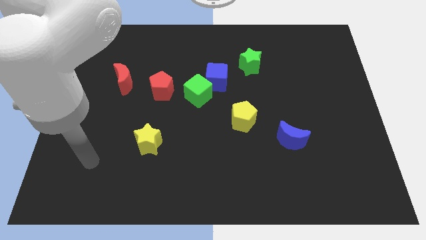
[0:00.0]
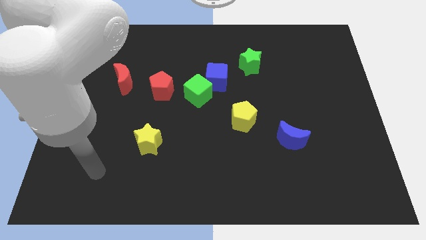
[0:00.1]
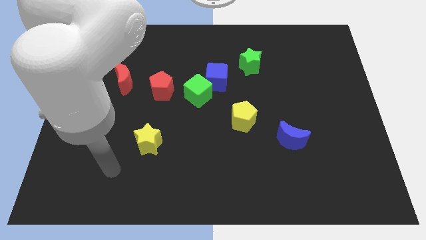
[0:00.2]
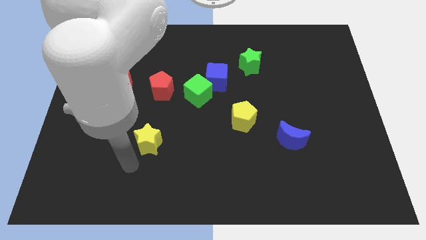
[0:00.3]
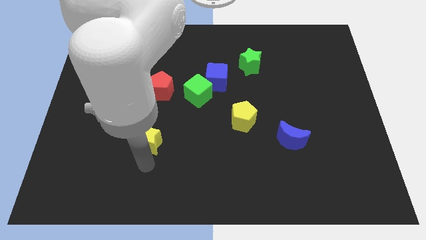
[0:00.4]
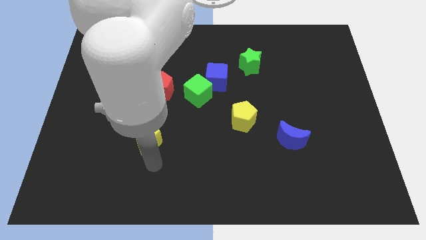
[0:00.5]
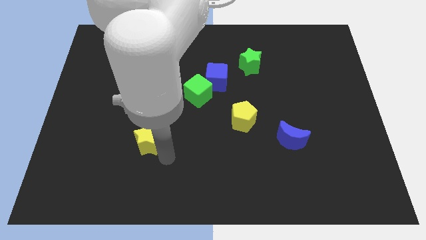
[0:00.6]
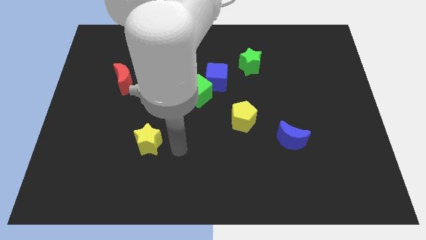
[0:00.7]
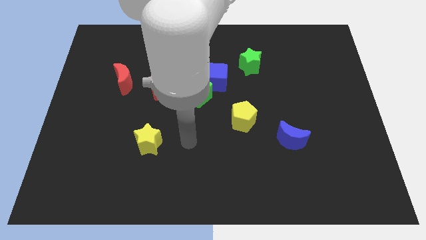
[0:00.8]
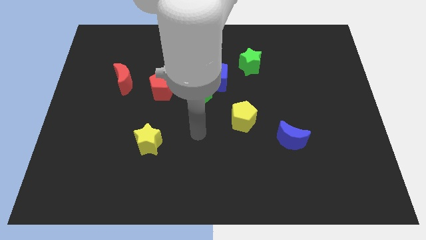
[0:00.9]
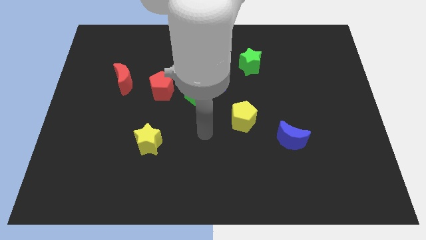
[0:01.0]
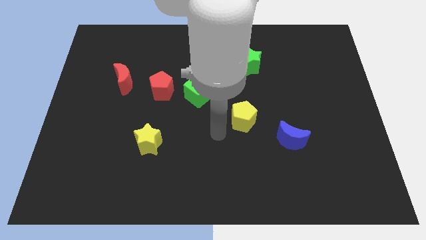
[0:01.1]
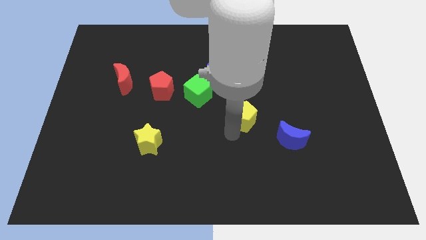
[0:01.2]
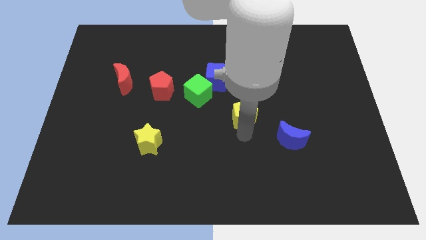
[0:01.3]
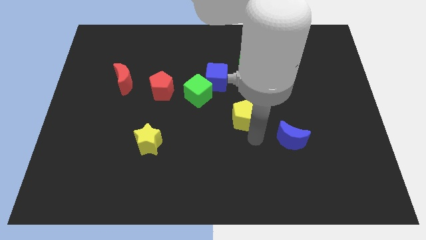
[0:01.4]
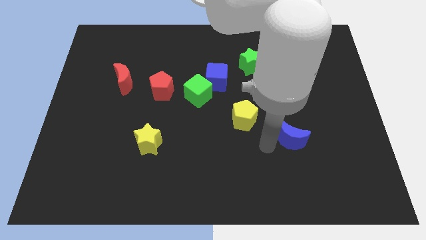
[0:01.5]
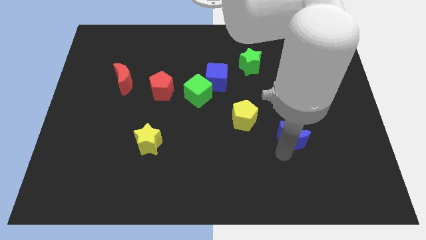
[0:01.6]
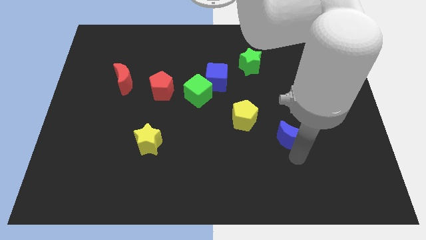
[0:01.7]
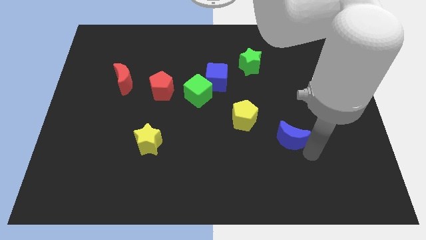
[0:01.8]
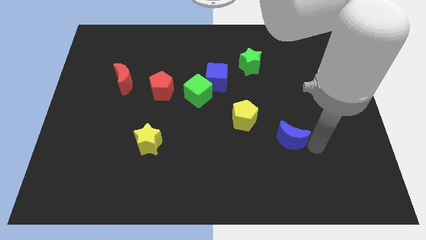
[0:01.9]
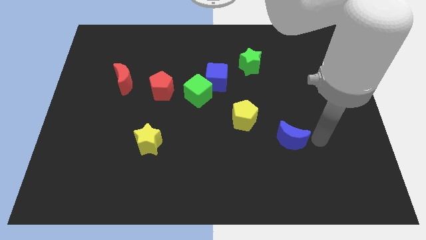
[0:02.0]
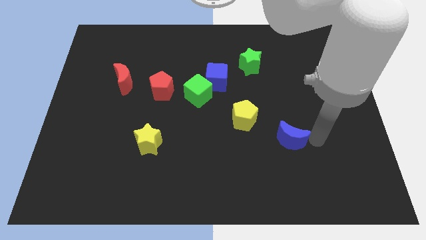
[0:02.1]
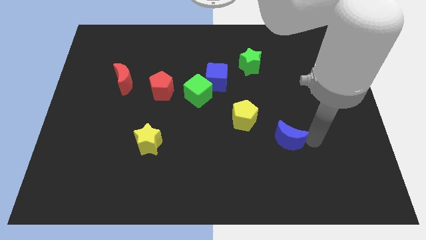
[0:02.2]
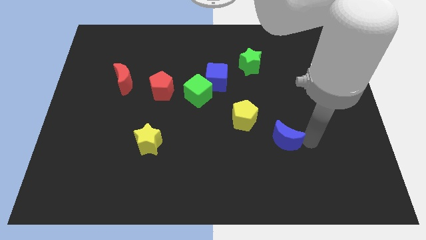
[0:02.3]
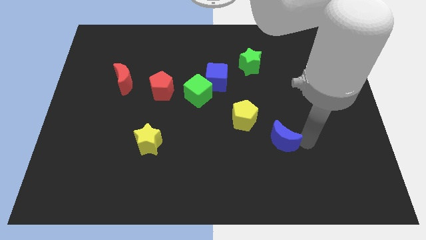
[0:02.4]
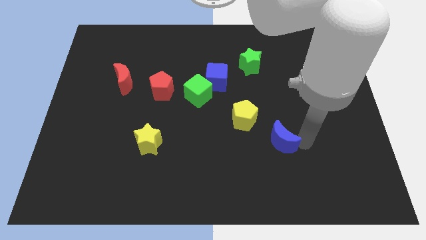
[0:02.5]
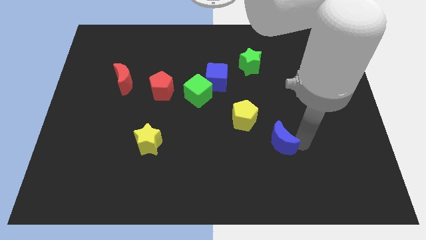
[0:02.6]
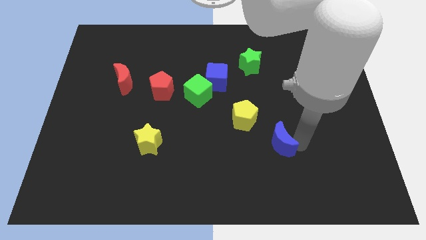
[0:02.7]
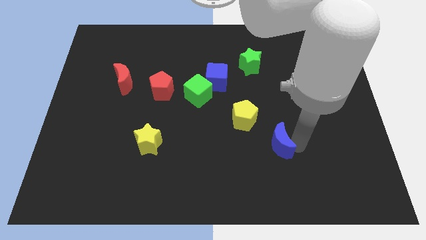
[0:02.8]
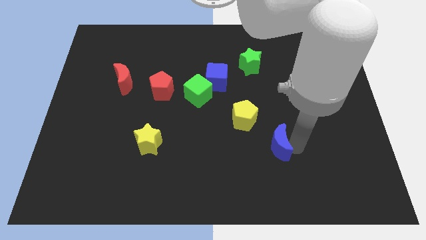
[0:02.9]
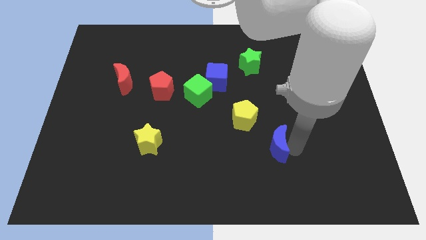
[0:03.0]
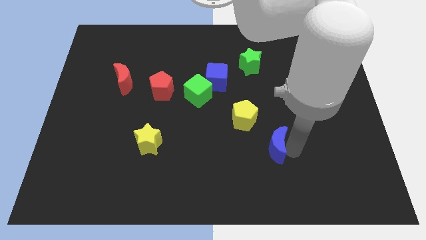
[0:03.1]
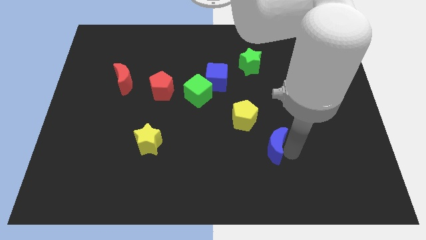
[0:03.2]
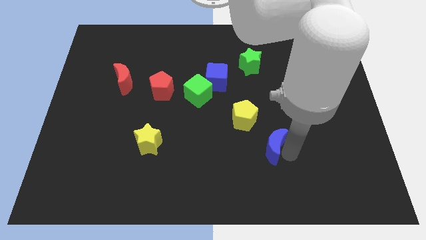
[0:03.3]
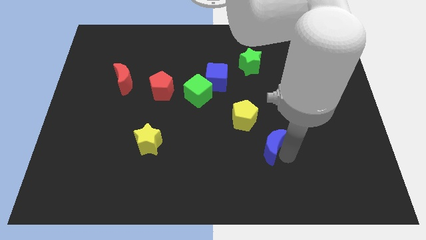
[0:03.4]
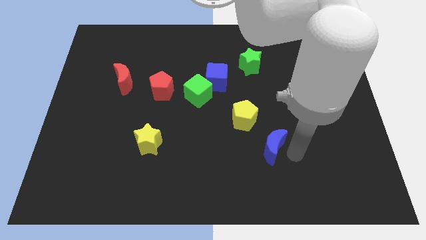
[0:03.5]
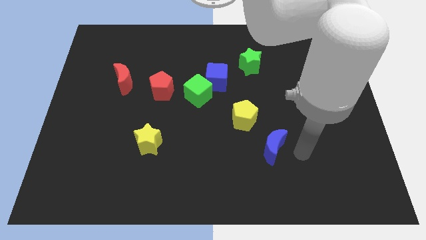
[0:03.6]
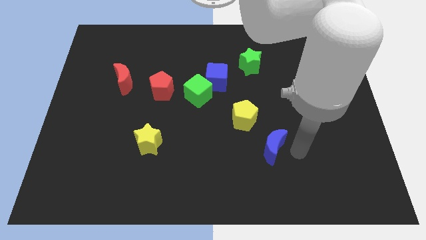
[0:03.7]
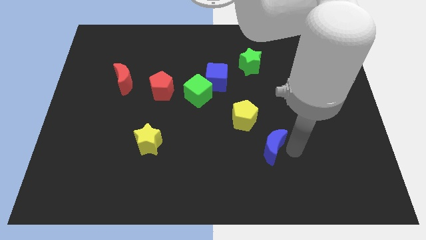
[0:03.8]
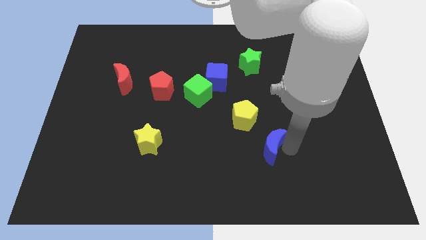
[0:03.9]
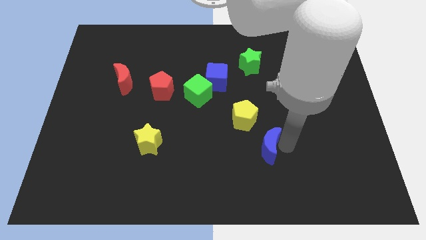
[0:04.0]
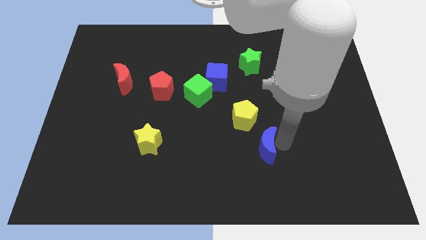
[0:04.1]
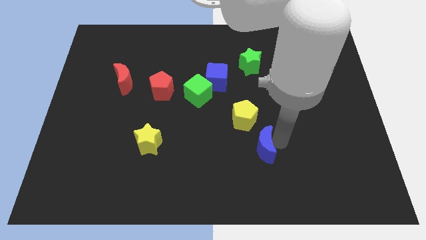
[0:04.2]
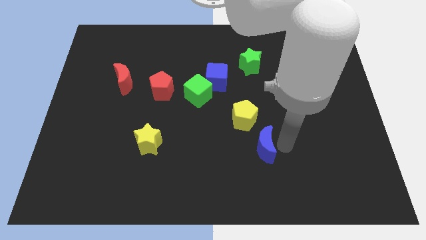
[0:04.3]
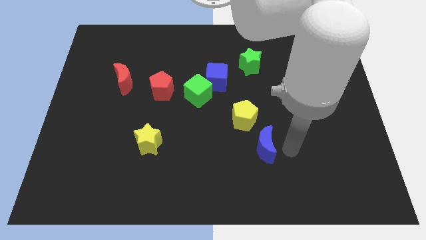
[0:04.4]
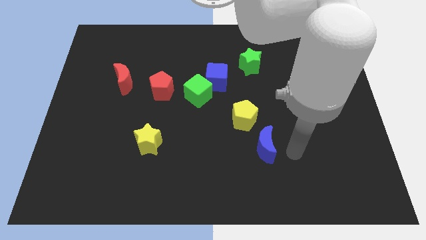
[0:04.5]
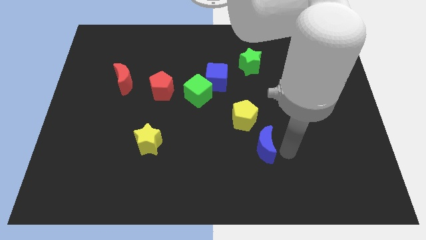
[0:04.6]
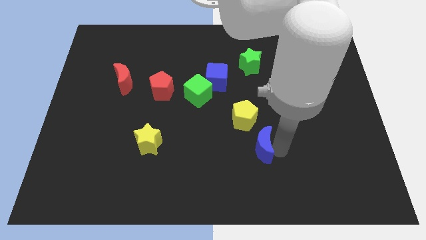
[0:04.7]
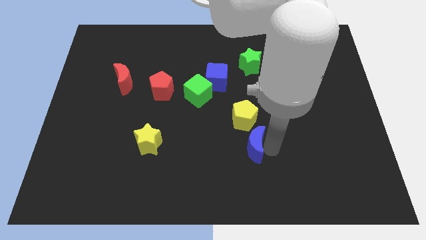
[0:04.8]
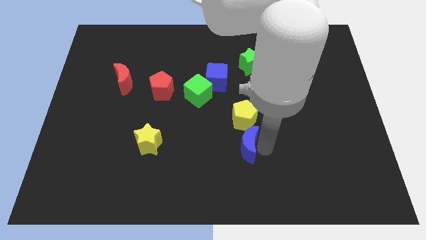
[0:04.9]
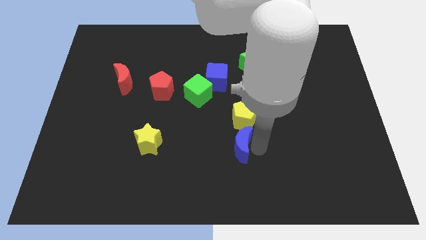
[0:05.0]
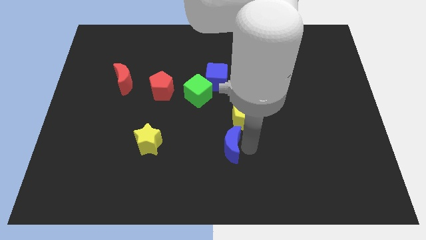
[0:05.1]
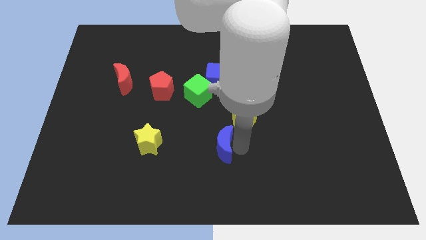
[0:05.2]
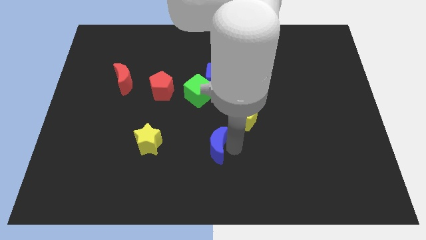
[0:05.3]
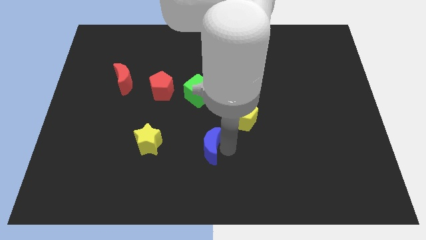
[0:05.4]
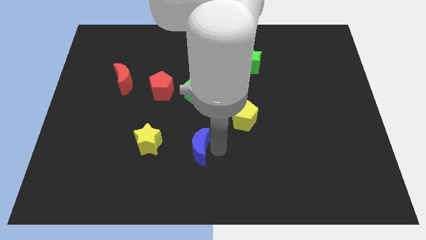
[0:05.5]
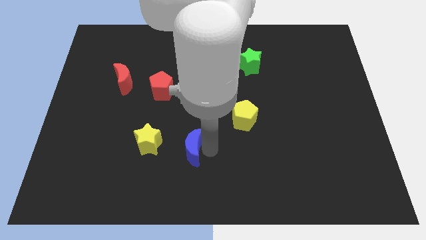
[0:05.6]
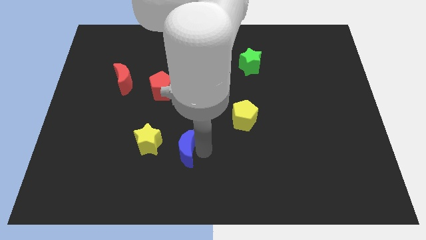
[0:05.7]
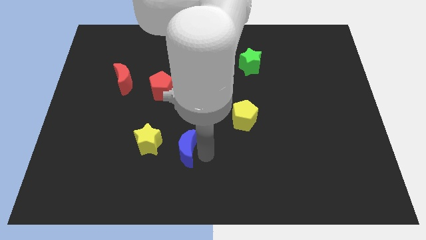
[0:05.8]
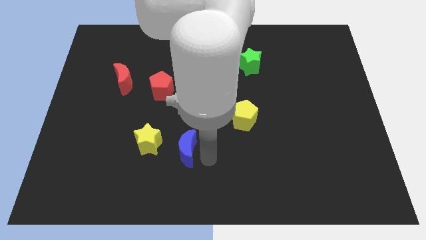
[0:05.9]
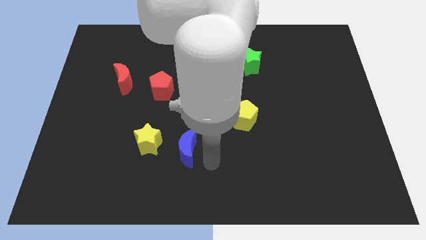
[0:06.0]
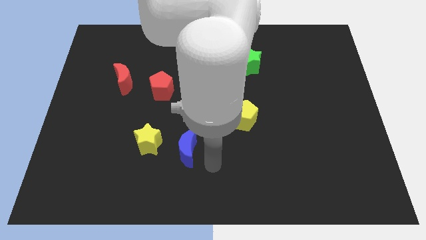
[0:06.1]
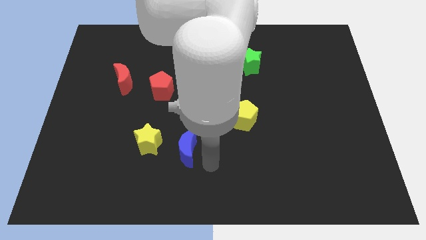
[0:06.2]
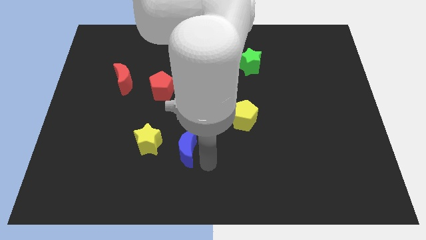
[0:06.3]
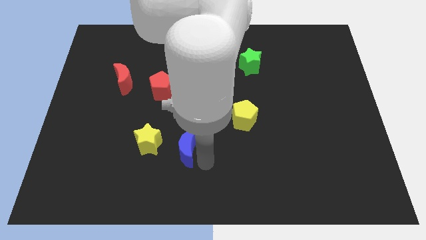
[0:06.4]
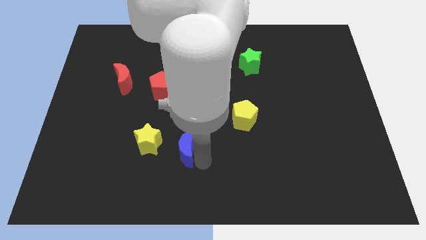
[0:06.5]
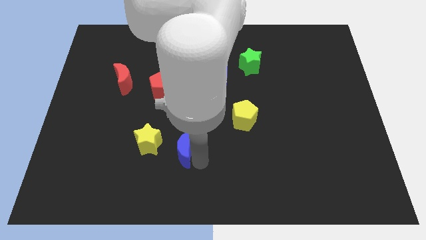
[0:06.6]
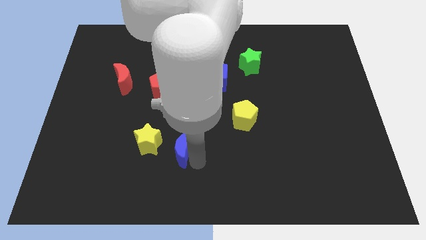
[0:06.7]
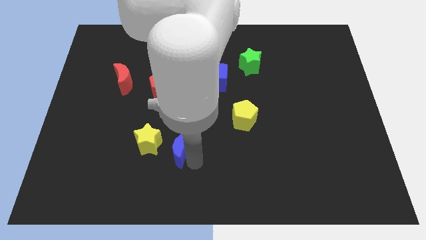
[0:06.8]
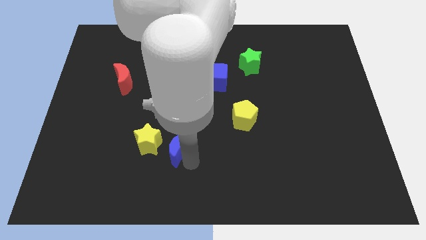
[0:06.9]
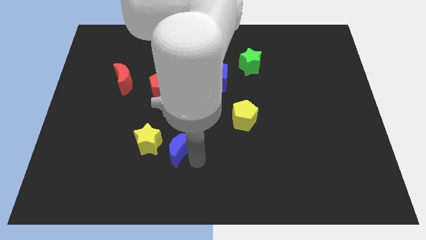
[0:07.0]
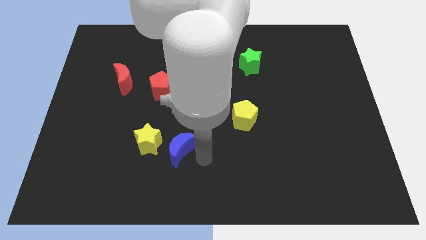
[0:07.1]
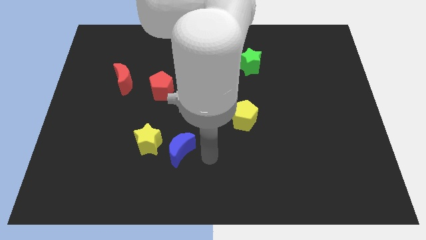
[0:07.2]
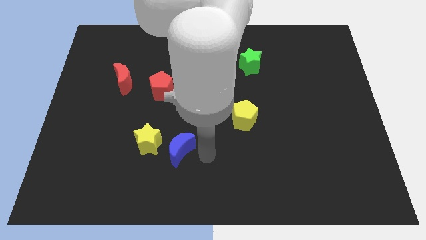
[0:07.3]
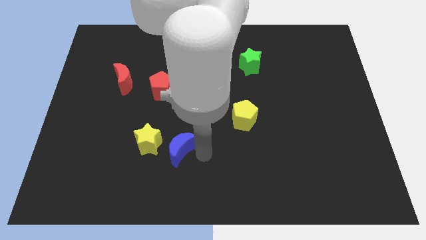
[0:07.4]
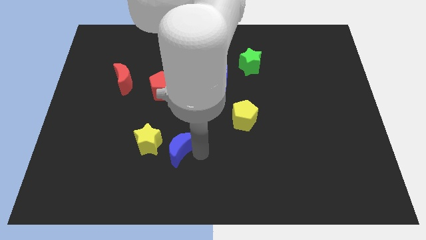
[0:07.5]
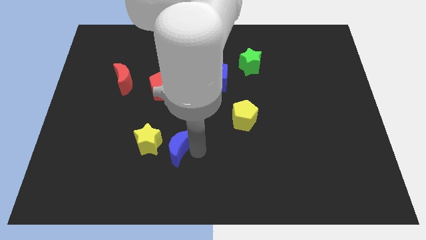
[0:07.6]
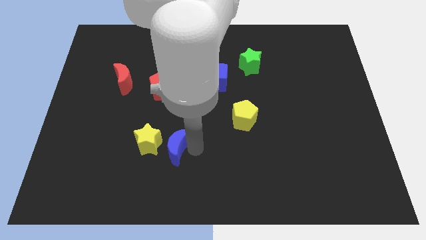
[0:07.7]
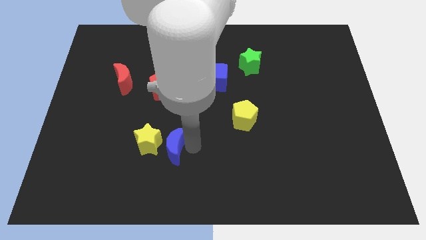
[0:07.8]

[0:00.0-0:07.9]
put the blue moon towards the yellow star
